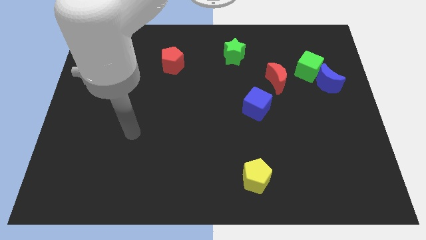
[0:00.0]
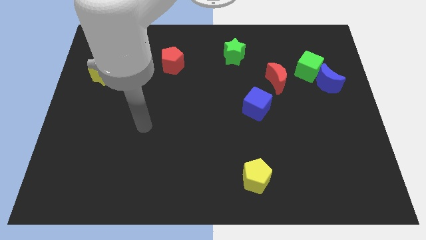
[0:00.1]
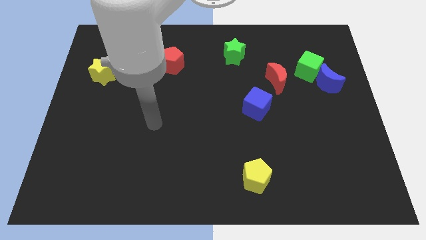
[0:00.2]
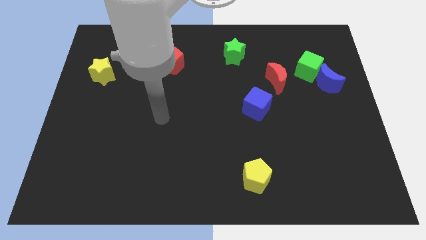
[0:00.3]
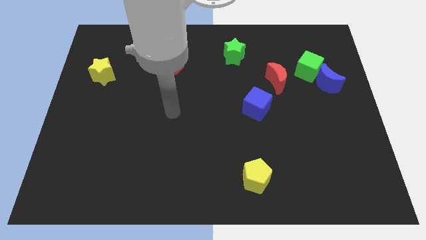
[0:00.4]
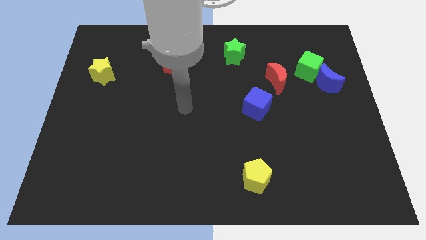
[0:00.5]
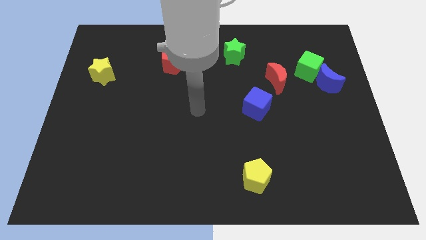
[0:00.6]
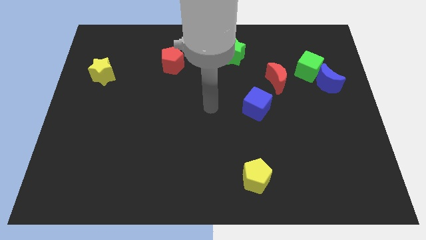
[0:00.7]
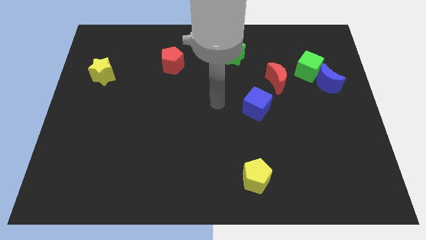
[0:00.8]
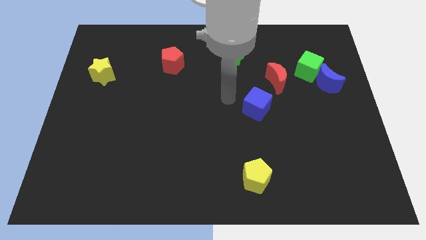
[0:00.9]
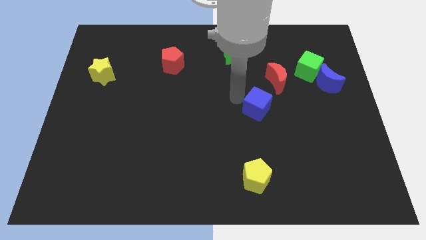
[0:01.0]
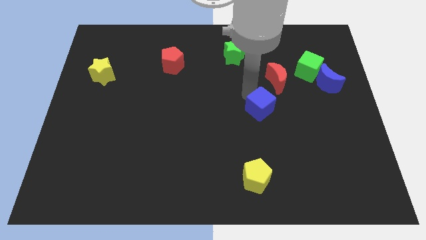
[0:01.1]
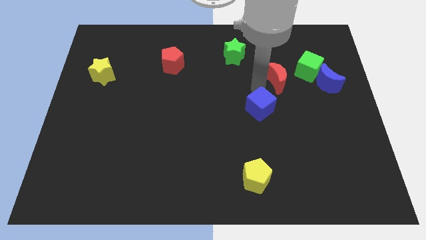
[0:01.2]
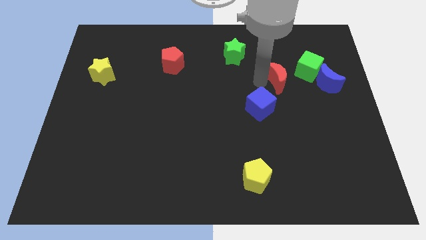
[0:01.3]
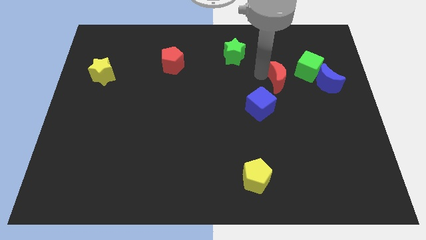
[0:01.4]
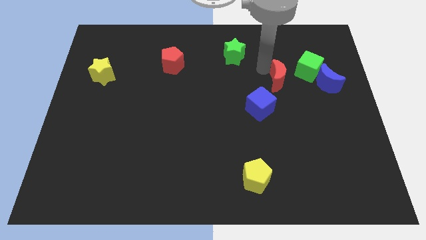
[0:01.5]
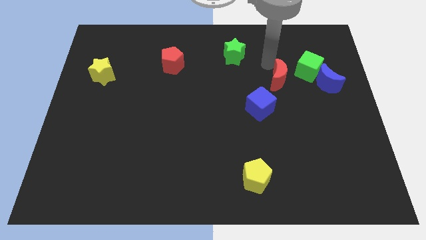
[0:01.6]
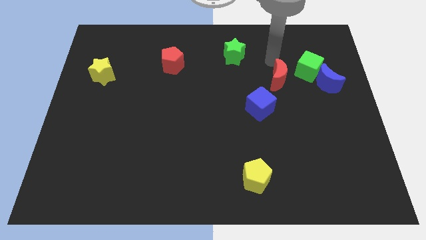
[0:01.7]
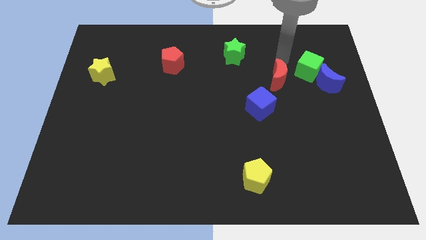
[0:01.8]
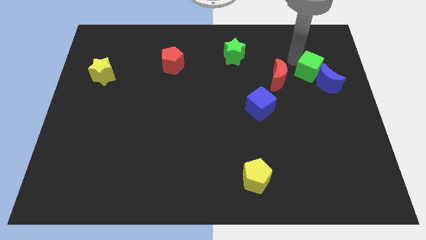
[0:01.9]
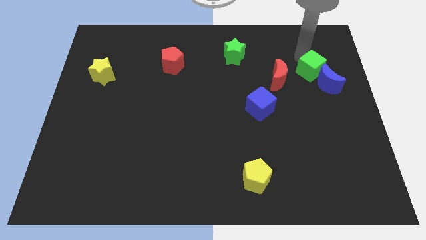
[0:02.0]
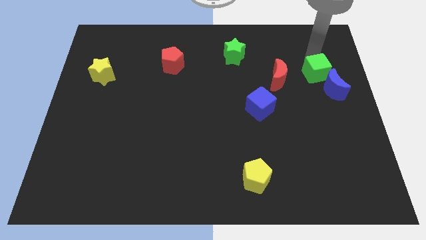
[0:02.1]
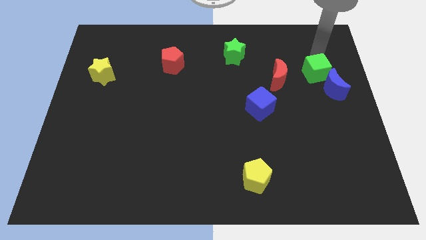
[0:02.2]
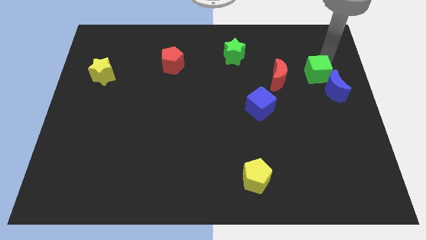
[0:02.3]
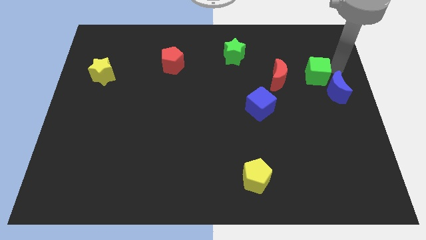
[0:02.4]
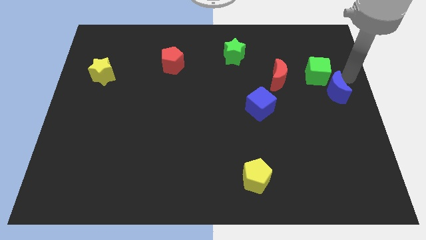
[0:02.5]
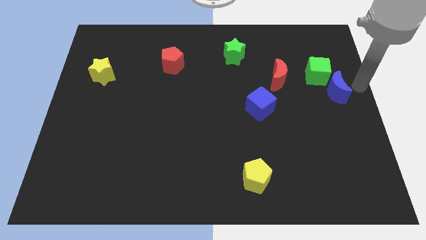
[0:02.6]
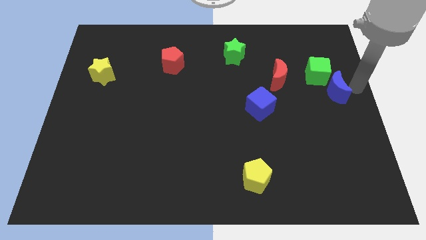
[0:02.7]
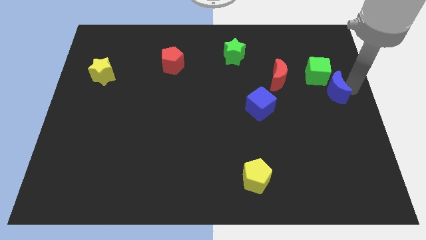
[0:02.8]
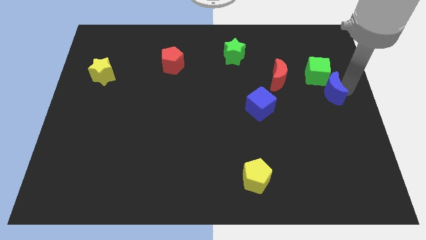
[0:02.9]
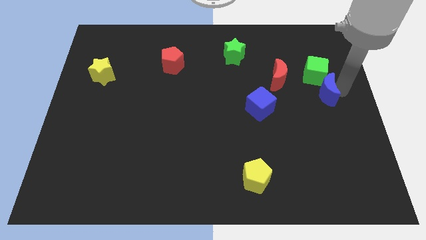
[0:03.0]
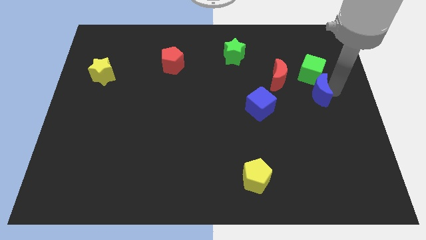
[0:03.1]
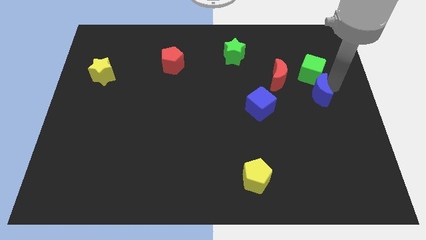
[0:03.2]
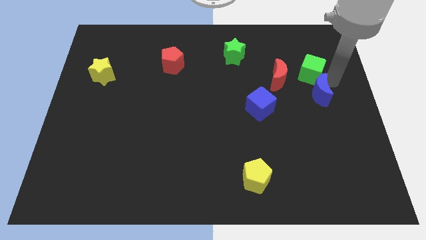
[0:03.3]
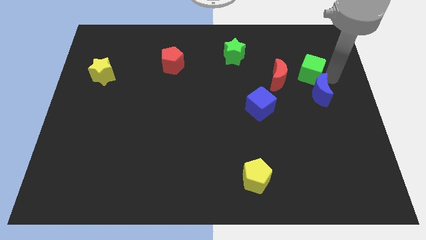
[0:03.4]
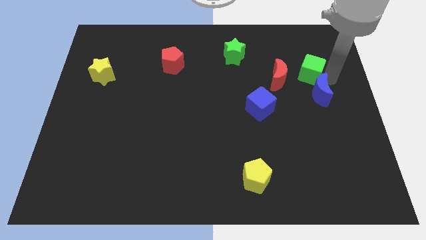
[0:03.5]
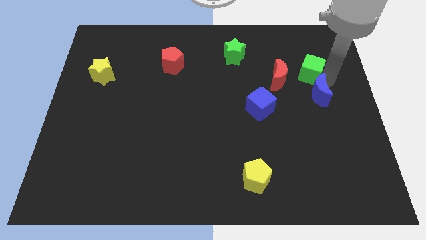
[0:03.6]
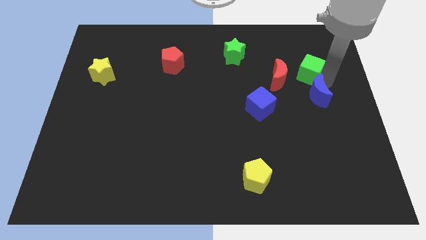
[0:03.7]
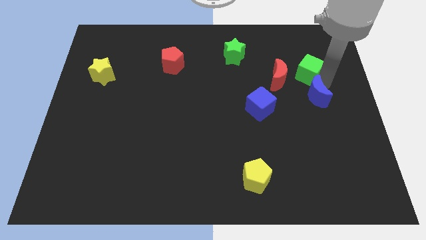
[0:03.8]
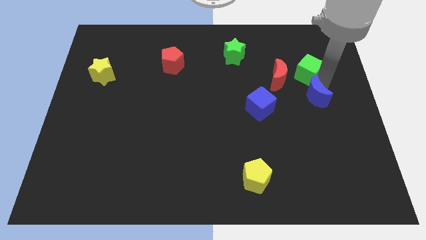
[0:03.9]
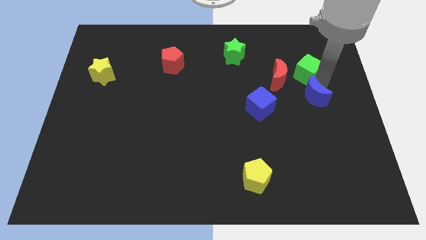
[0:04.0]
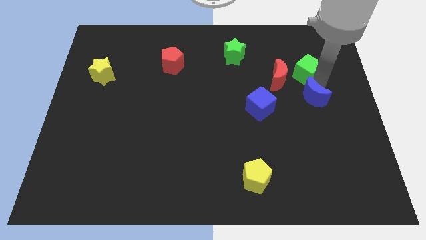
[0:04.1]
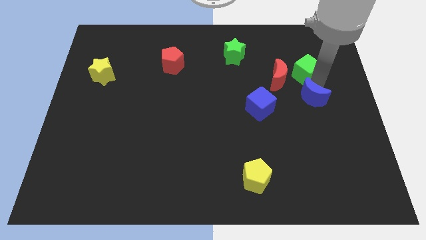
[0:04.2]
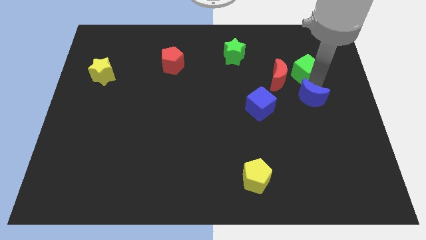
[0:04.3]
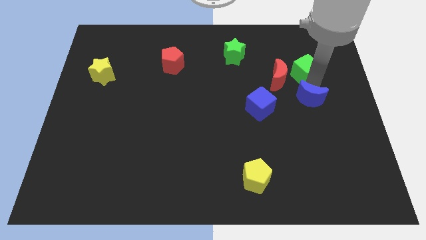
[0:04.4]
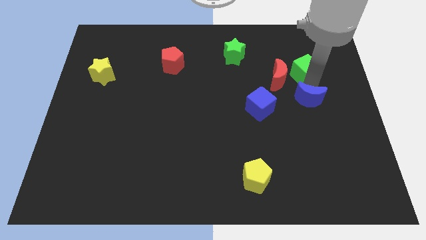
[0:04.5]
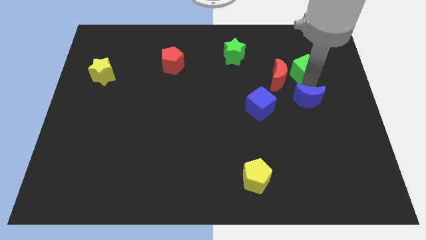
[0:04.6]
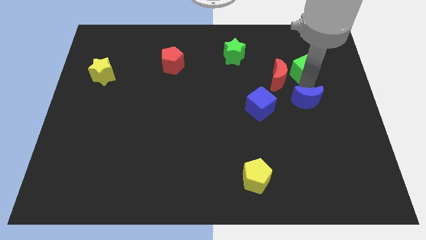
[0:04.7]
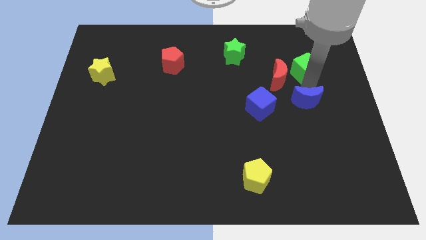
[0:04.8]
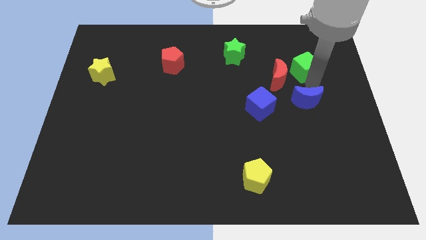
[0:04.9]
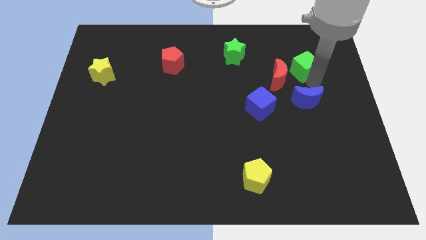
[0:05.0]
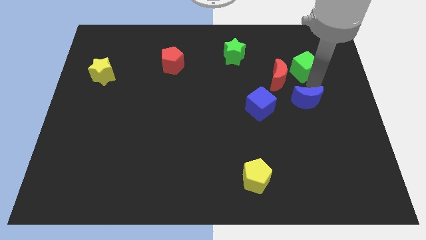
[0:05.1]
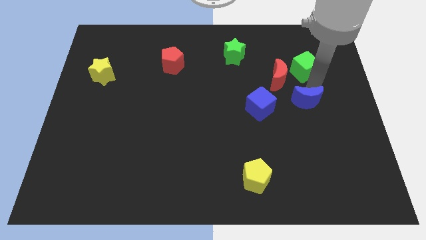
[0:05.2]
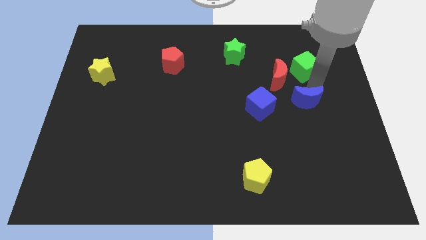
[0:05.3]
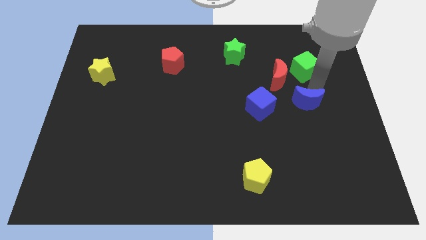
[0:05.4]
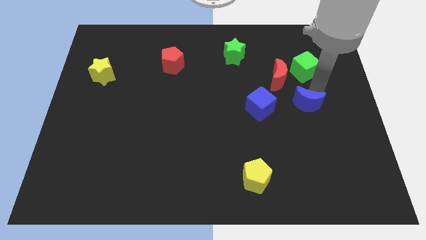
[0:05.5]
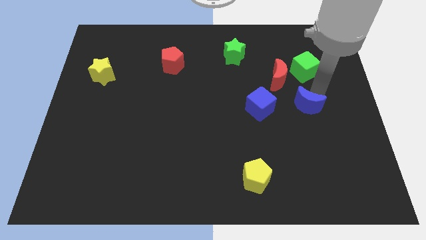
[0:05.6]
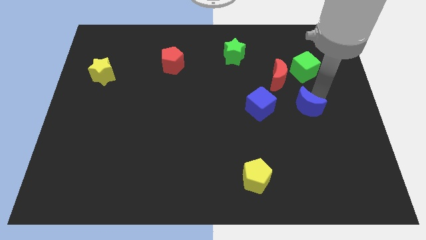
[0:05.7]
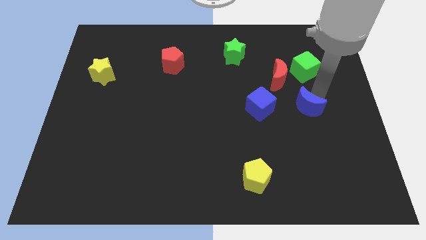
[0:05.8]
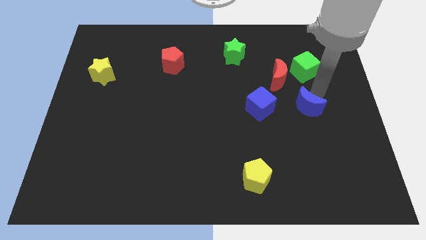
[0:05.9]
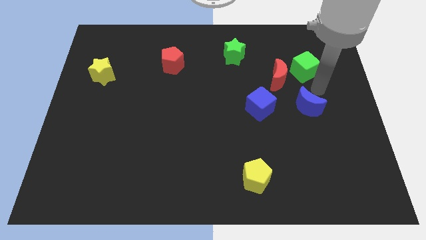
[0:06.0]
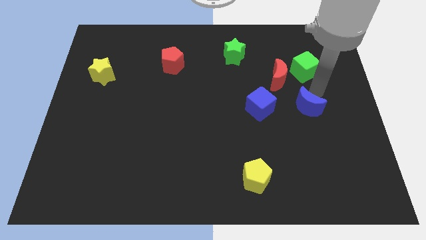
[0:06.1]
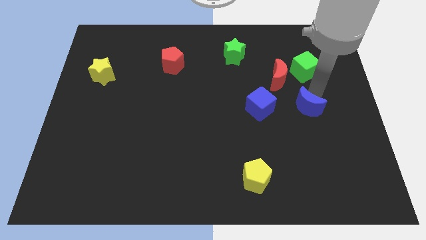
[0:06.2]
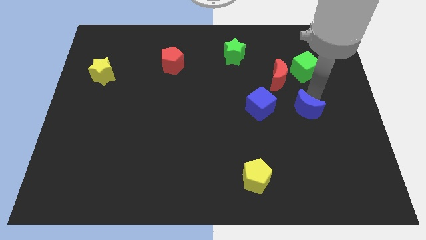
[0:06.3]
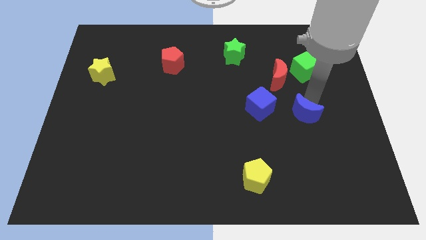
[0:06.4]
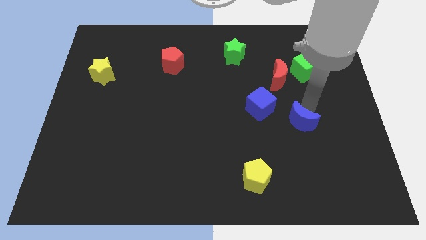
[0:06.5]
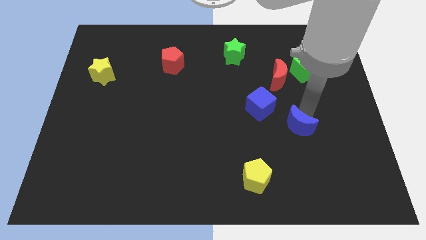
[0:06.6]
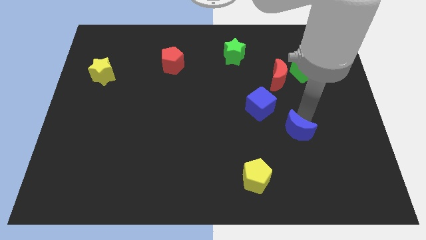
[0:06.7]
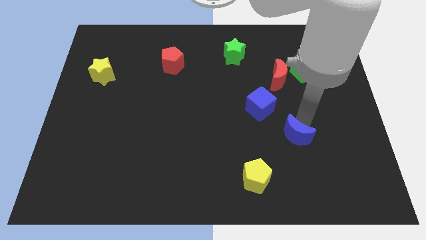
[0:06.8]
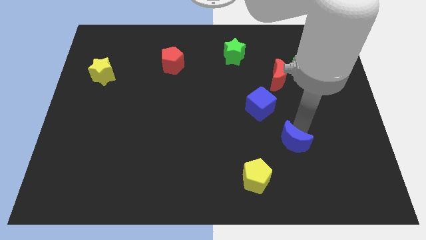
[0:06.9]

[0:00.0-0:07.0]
push the blue moon to the top right of the yellow pentagon

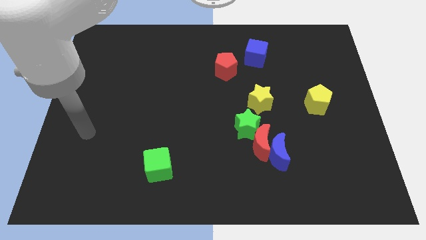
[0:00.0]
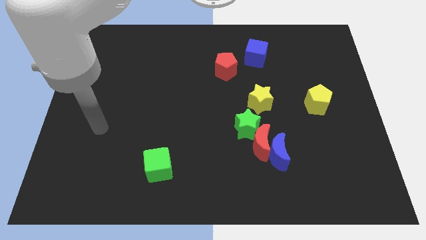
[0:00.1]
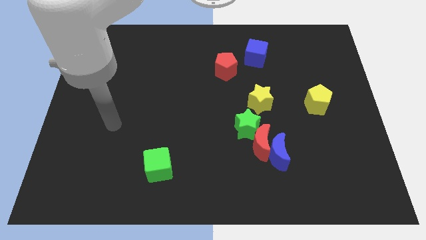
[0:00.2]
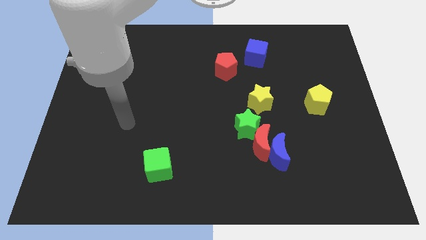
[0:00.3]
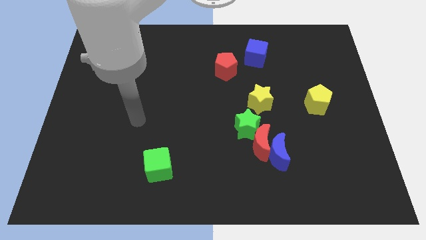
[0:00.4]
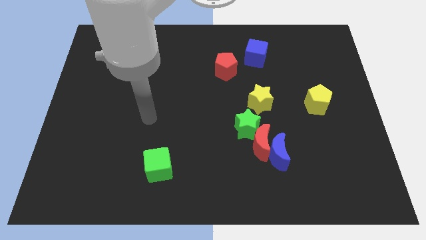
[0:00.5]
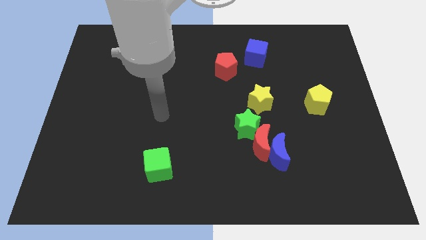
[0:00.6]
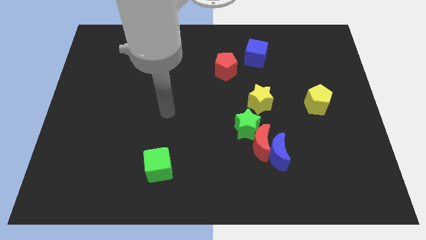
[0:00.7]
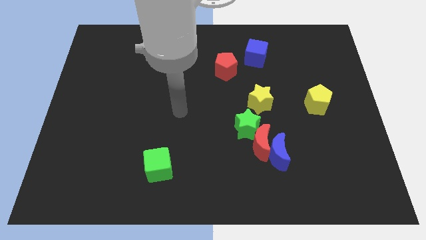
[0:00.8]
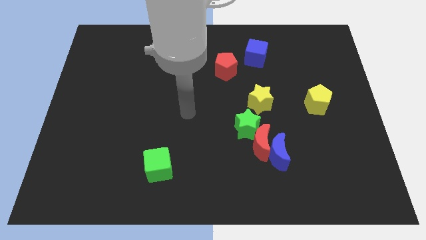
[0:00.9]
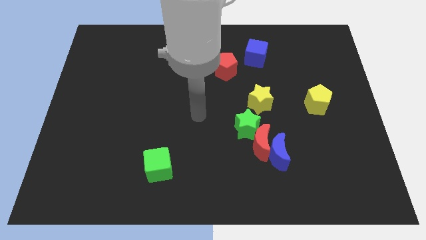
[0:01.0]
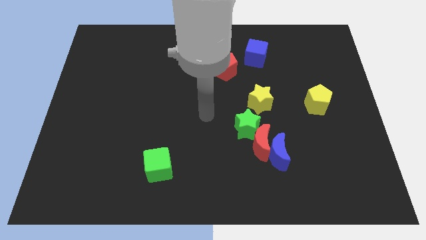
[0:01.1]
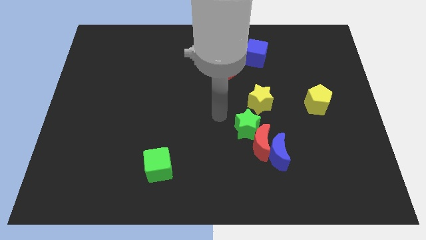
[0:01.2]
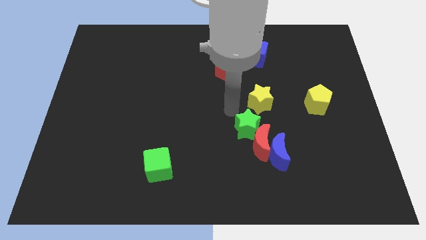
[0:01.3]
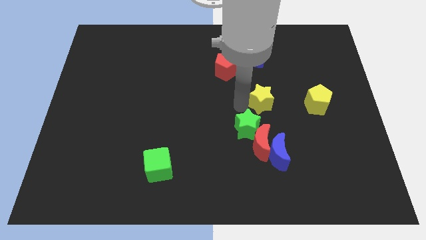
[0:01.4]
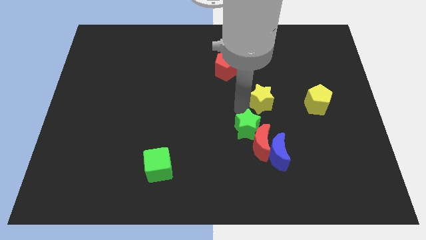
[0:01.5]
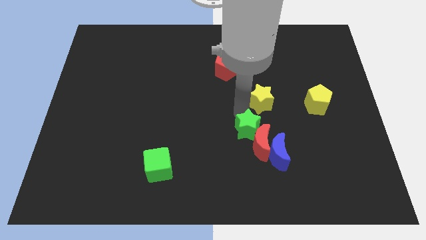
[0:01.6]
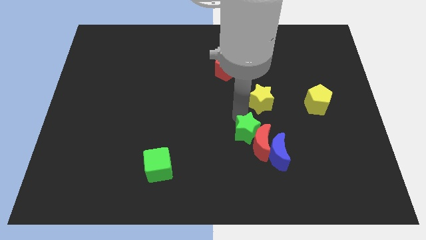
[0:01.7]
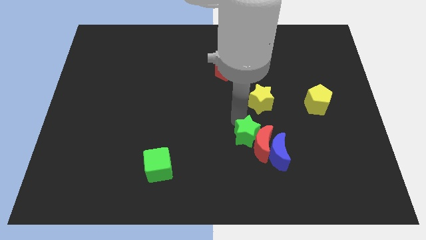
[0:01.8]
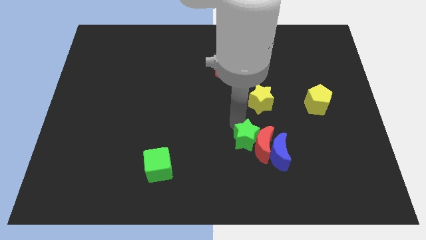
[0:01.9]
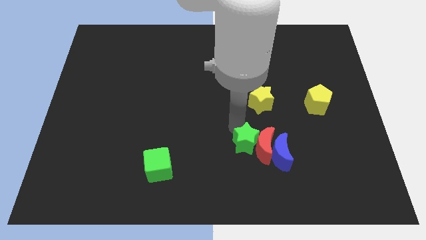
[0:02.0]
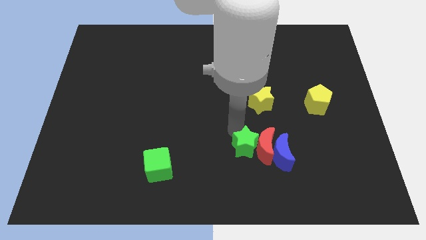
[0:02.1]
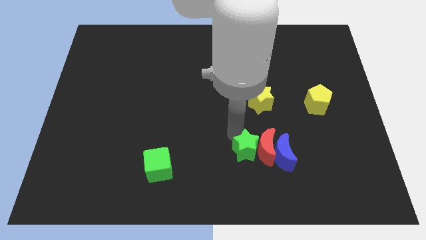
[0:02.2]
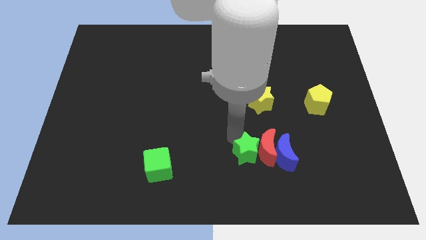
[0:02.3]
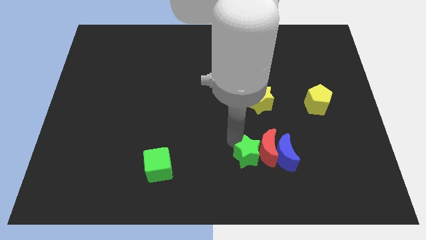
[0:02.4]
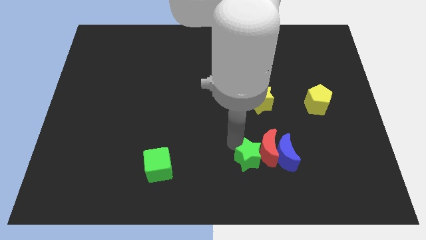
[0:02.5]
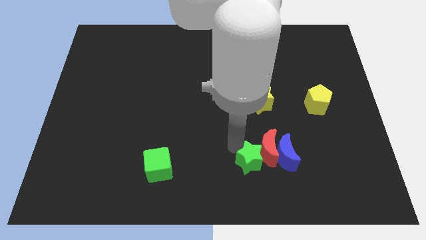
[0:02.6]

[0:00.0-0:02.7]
put the green star diagonally down and to the left of the blue moon
